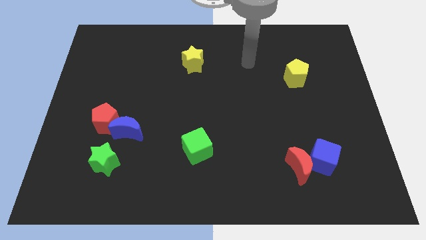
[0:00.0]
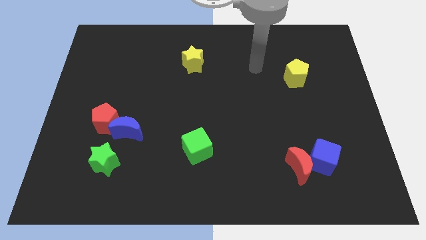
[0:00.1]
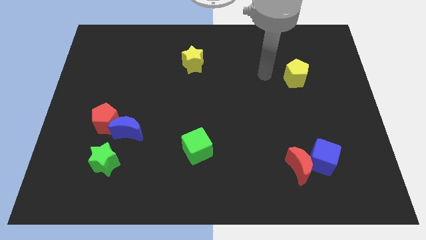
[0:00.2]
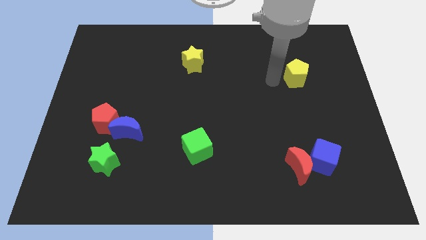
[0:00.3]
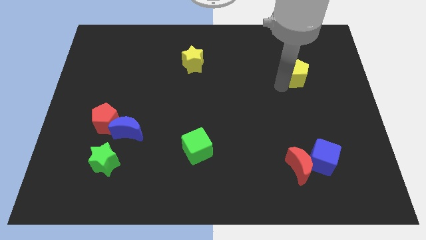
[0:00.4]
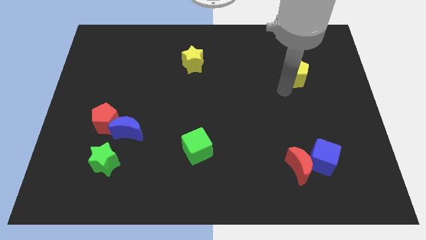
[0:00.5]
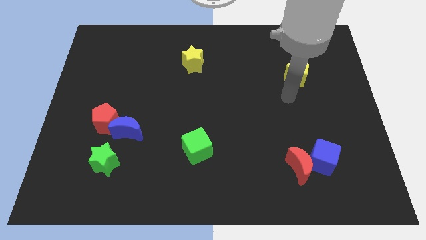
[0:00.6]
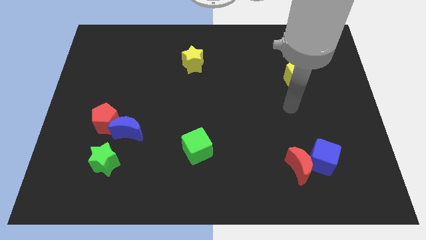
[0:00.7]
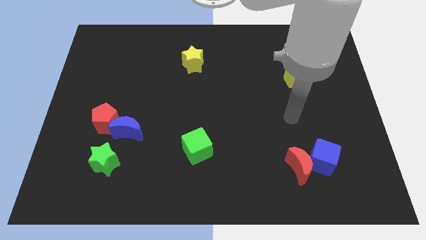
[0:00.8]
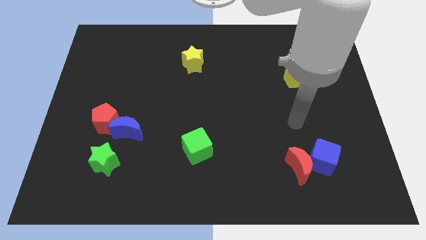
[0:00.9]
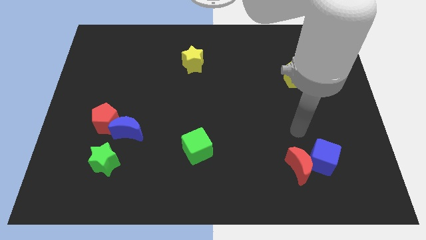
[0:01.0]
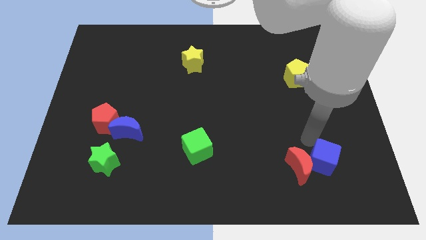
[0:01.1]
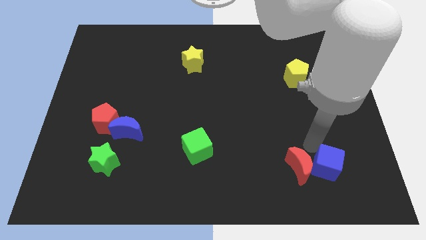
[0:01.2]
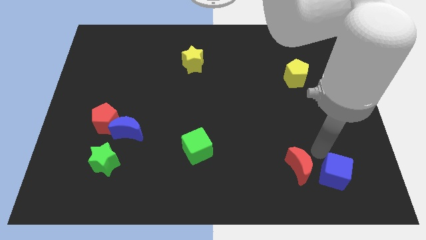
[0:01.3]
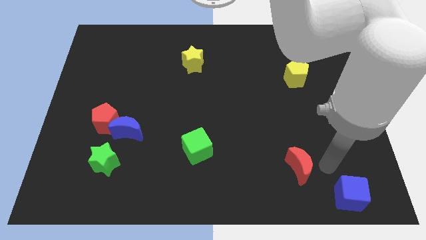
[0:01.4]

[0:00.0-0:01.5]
separate the red moon from the blue cube

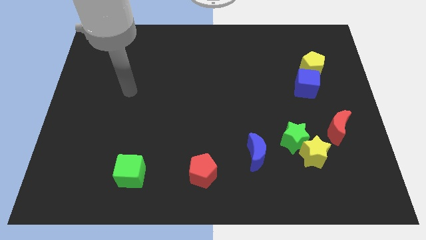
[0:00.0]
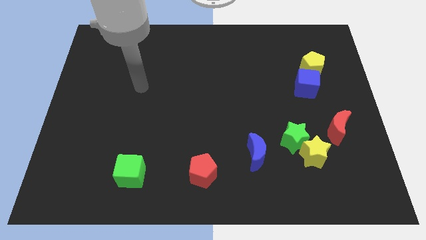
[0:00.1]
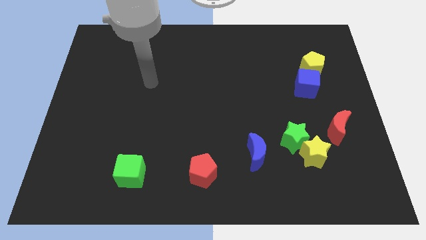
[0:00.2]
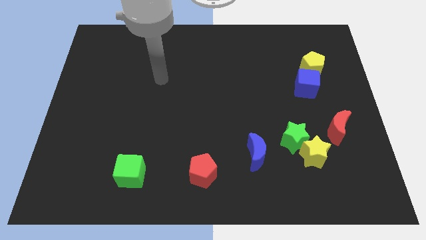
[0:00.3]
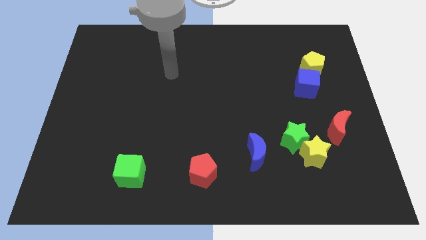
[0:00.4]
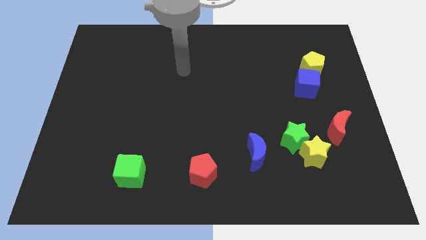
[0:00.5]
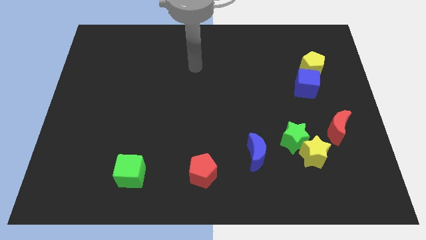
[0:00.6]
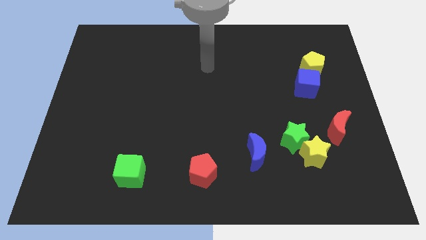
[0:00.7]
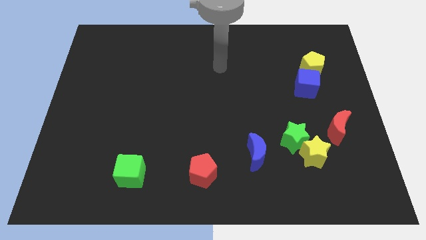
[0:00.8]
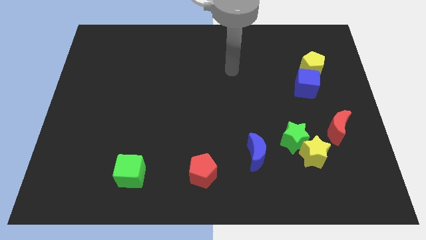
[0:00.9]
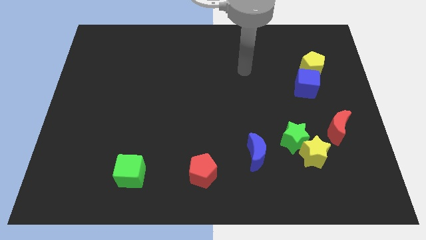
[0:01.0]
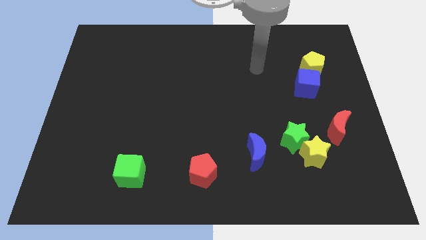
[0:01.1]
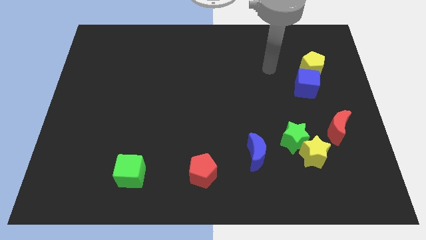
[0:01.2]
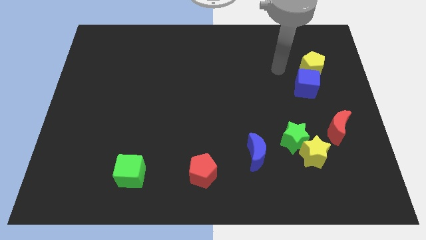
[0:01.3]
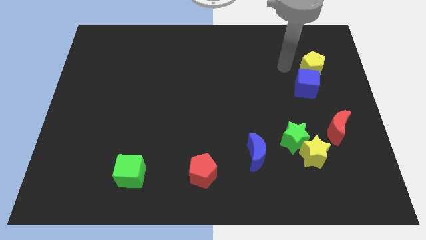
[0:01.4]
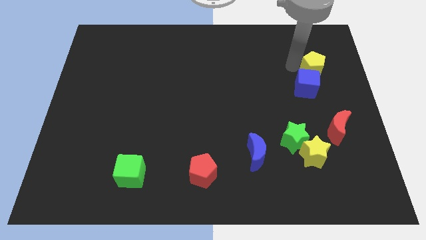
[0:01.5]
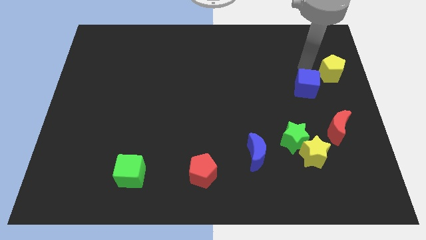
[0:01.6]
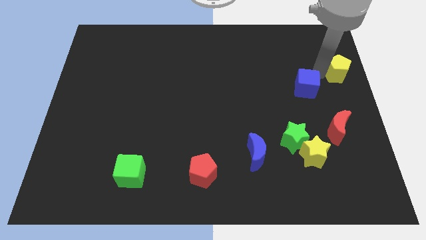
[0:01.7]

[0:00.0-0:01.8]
move the blue cube away from the yellow pentagon

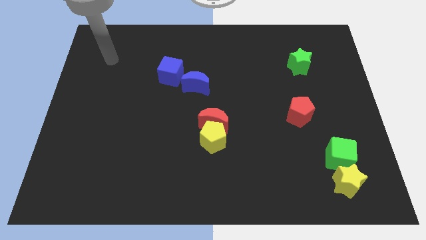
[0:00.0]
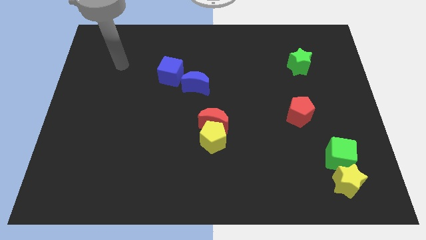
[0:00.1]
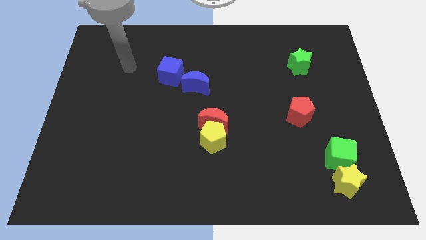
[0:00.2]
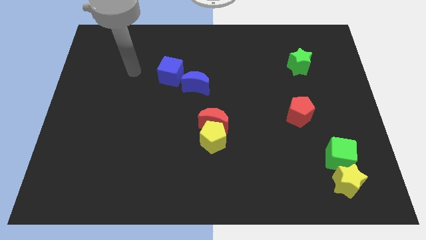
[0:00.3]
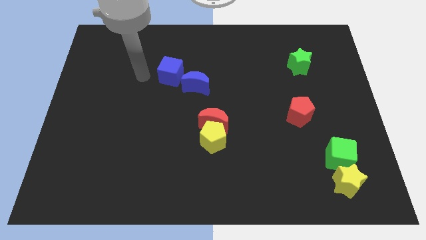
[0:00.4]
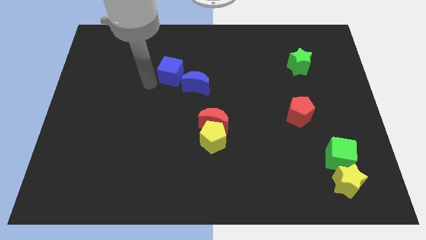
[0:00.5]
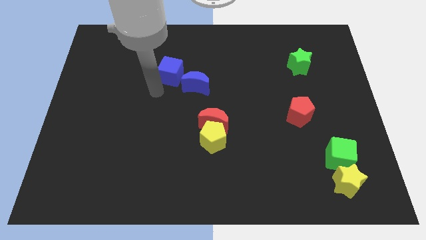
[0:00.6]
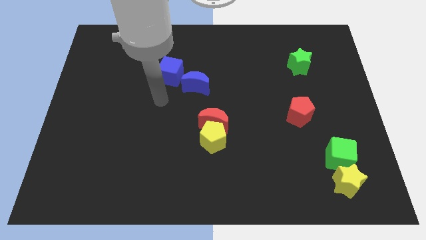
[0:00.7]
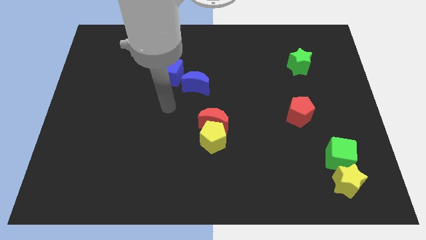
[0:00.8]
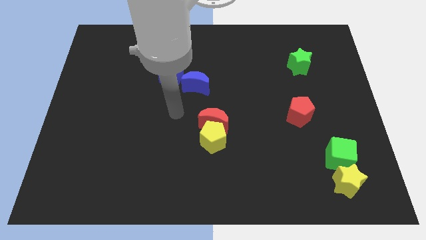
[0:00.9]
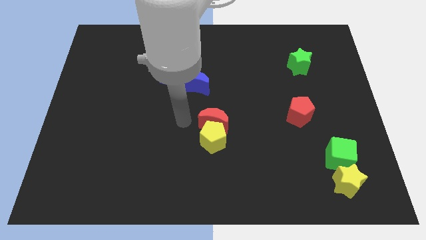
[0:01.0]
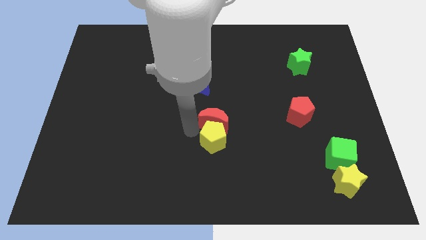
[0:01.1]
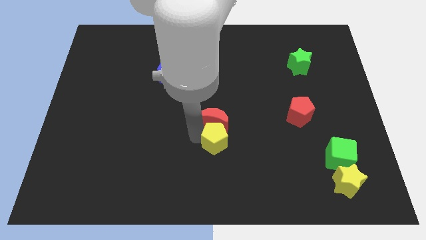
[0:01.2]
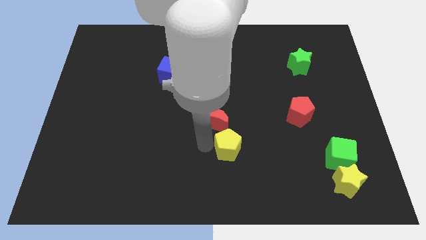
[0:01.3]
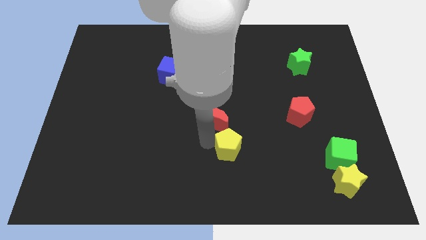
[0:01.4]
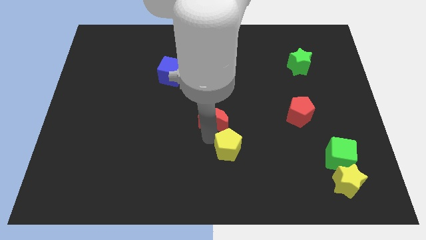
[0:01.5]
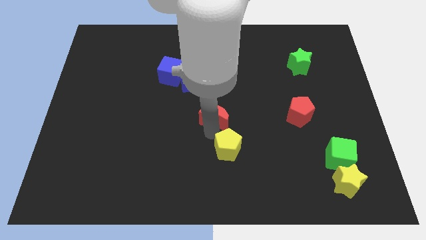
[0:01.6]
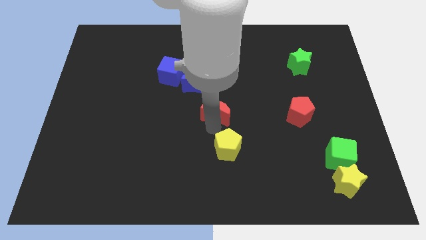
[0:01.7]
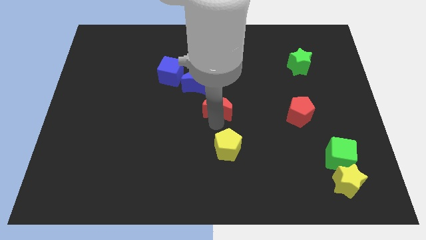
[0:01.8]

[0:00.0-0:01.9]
separate the red moon from the yellow pentagon

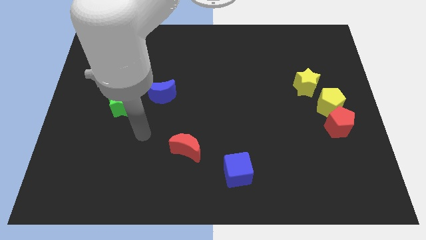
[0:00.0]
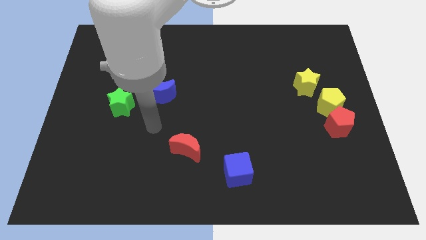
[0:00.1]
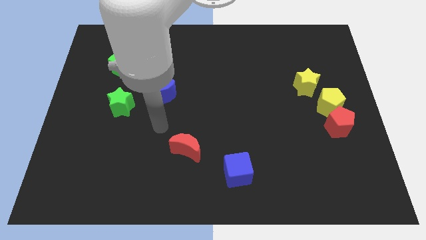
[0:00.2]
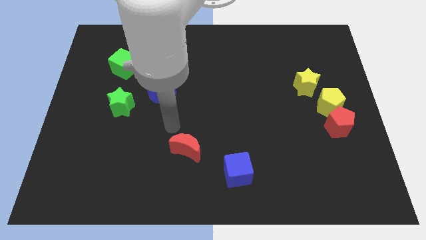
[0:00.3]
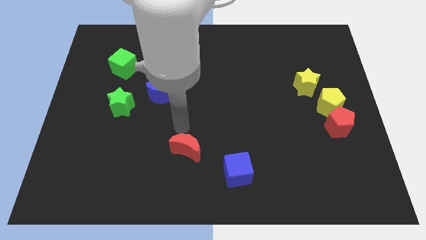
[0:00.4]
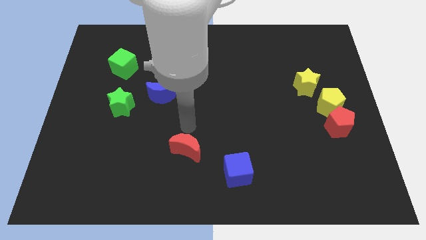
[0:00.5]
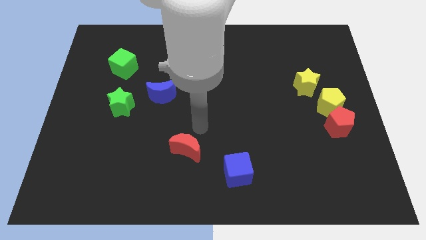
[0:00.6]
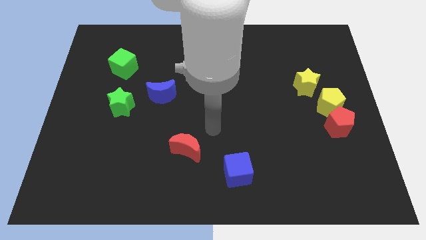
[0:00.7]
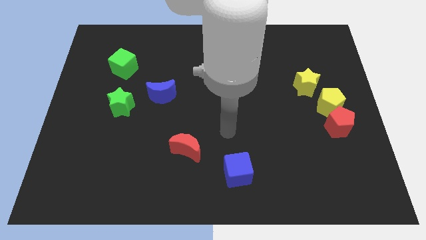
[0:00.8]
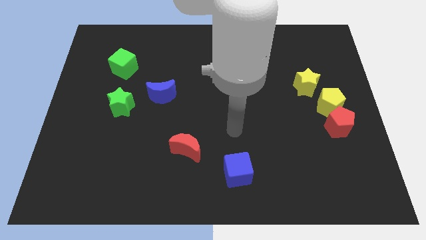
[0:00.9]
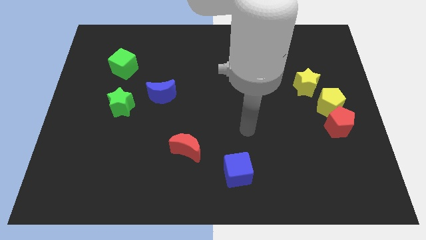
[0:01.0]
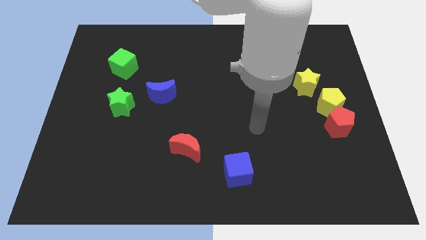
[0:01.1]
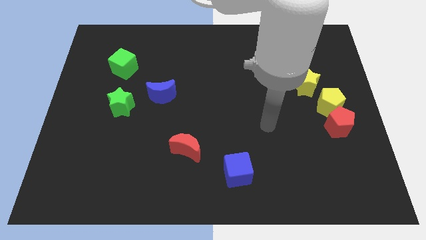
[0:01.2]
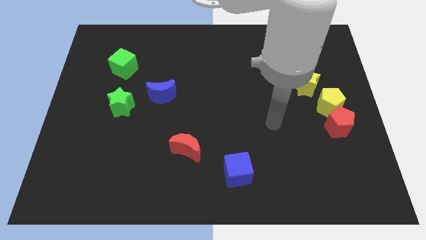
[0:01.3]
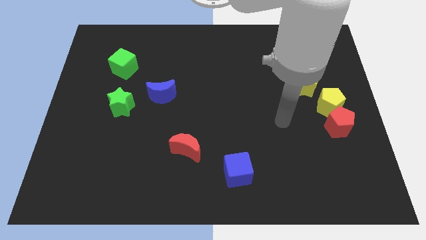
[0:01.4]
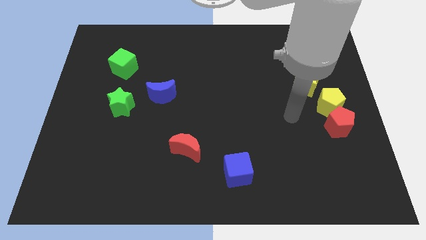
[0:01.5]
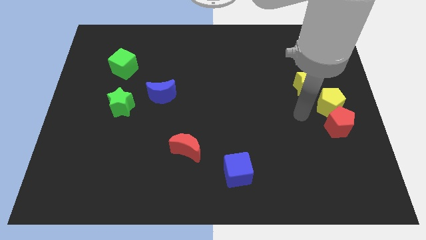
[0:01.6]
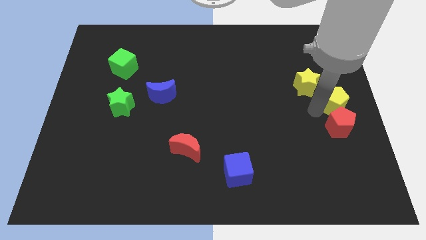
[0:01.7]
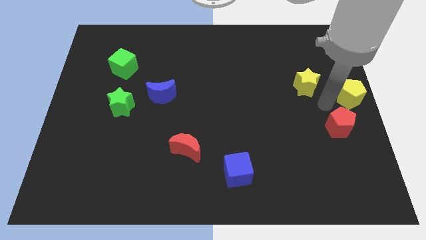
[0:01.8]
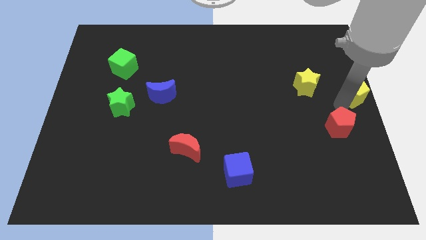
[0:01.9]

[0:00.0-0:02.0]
pull the red pentagon apart from the yellow pentagon

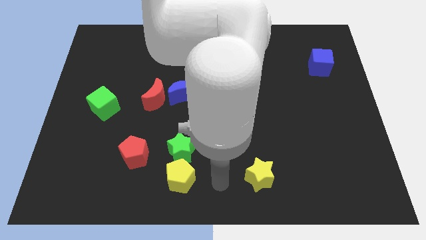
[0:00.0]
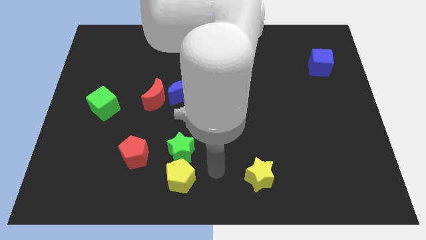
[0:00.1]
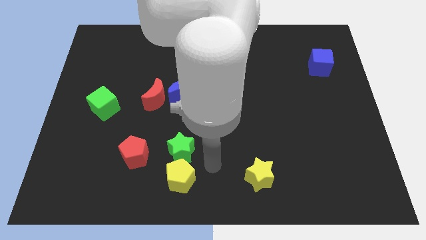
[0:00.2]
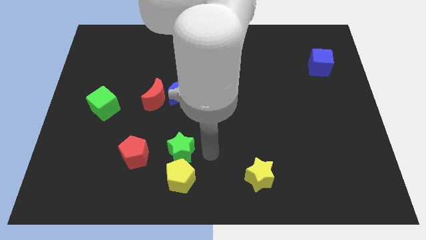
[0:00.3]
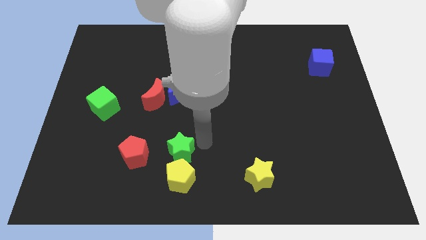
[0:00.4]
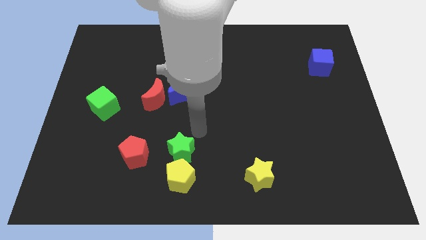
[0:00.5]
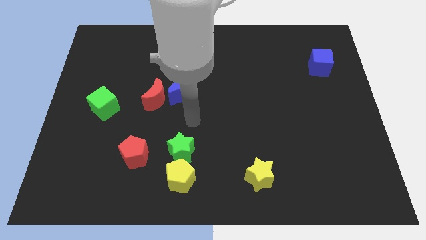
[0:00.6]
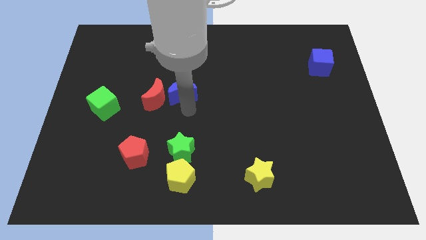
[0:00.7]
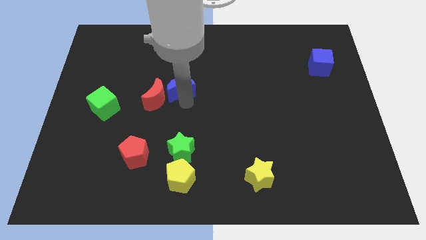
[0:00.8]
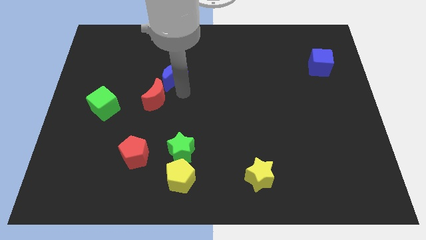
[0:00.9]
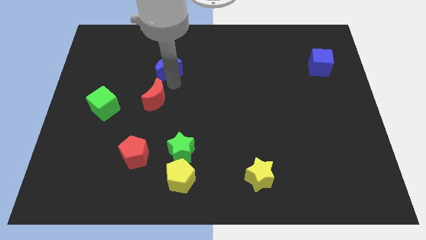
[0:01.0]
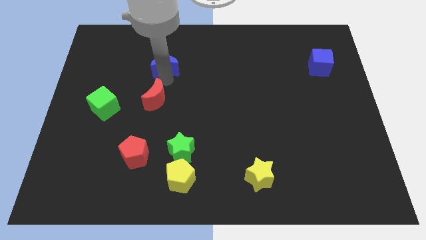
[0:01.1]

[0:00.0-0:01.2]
separate the red moon from the blue moon

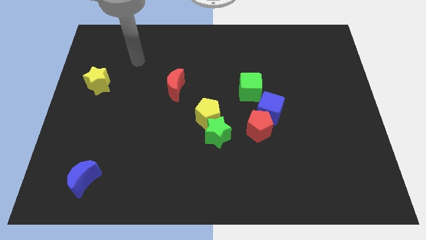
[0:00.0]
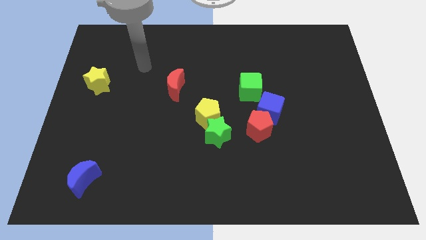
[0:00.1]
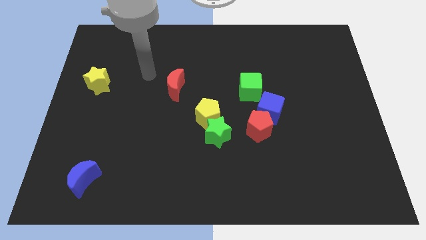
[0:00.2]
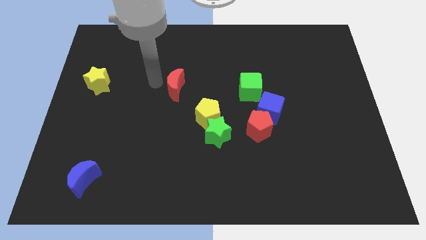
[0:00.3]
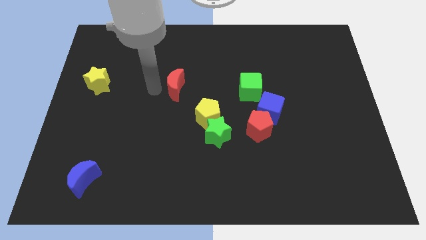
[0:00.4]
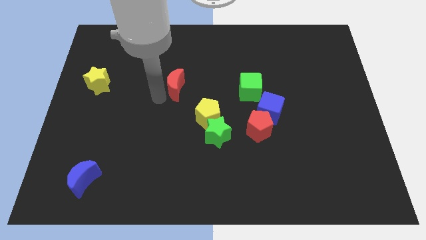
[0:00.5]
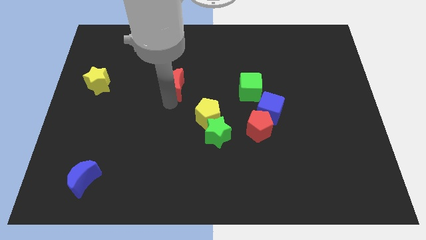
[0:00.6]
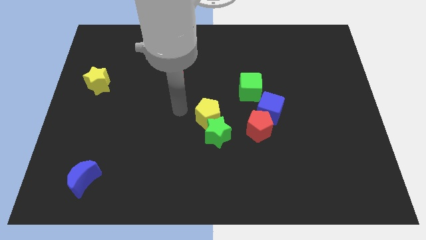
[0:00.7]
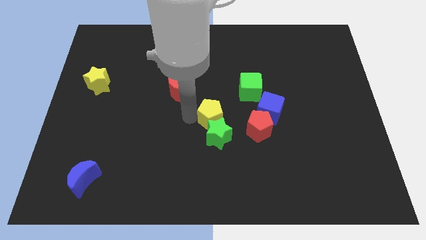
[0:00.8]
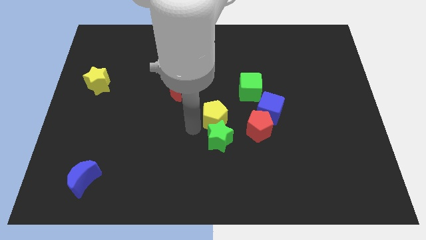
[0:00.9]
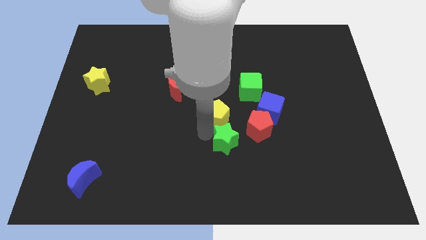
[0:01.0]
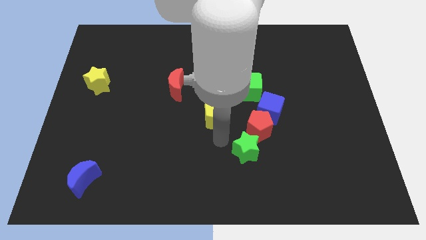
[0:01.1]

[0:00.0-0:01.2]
pull the yellow pentagon apart from the green star
